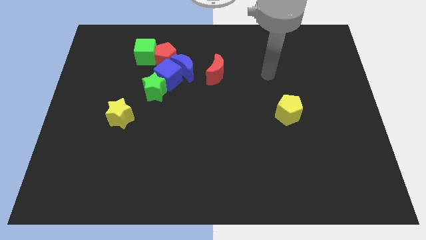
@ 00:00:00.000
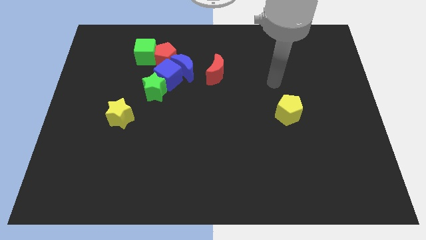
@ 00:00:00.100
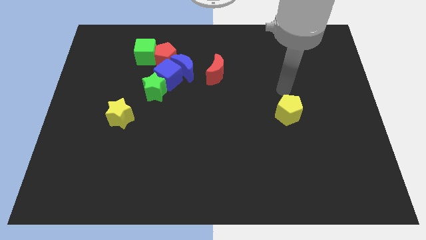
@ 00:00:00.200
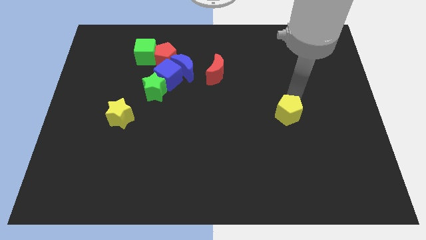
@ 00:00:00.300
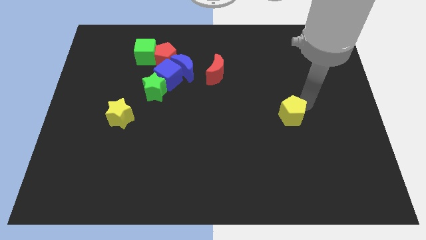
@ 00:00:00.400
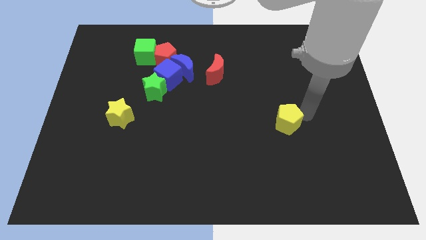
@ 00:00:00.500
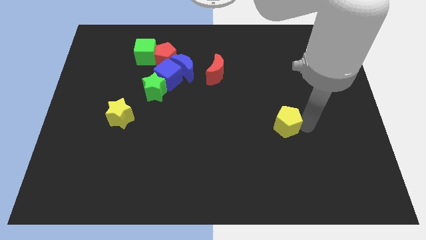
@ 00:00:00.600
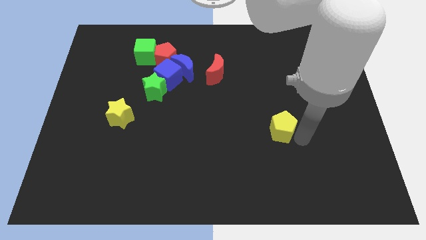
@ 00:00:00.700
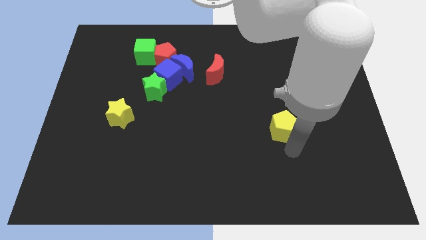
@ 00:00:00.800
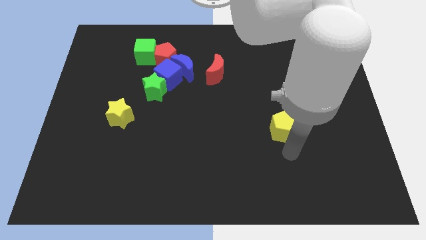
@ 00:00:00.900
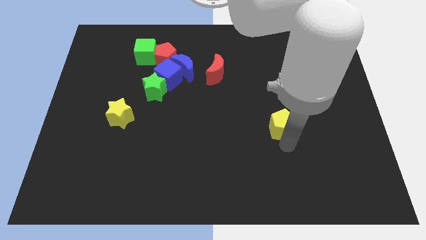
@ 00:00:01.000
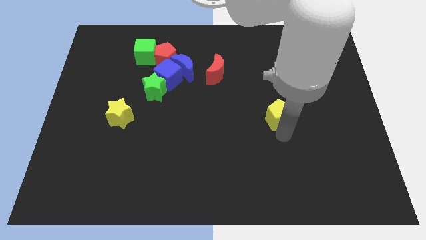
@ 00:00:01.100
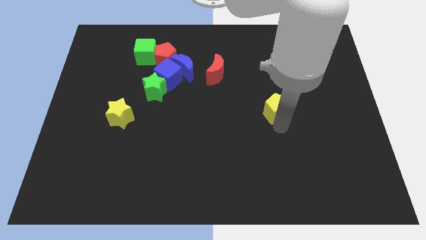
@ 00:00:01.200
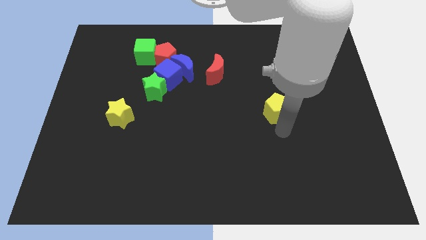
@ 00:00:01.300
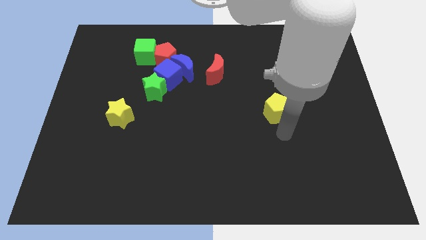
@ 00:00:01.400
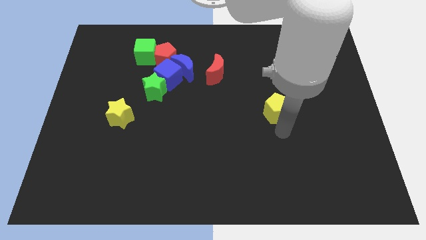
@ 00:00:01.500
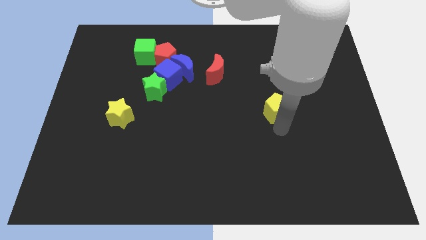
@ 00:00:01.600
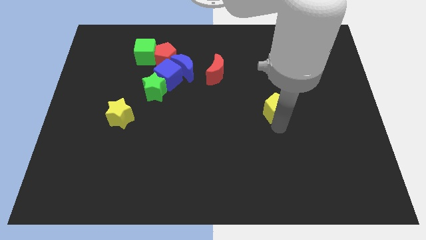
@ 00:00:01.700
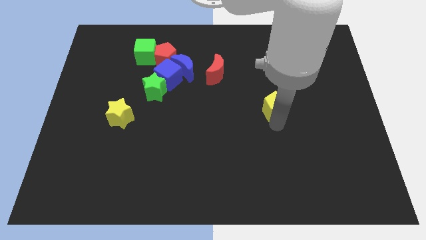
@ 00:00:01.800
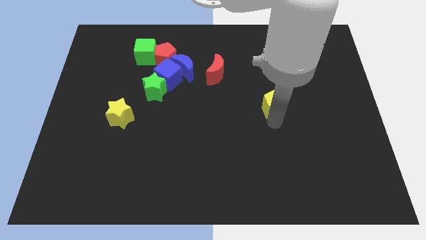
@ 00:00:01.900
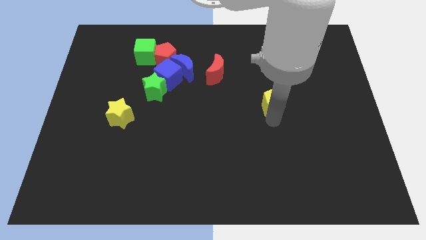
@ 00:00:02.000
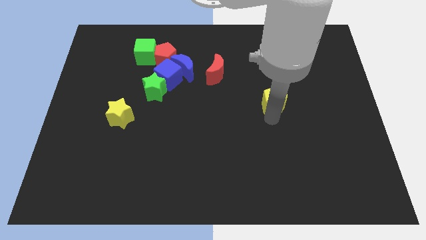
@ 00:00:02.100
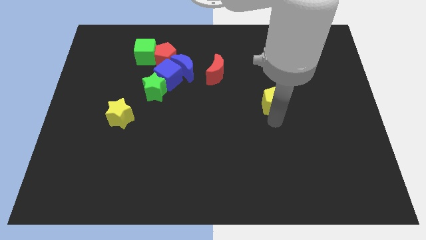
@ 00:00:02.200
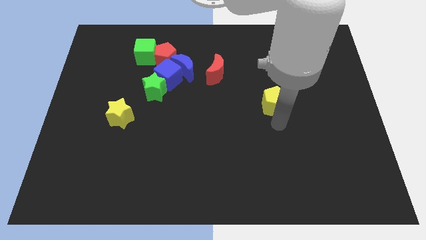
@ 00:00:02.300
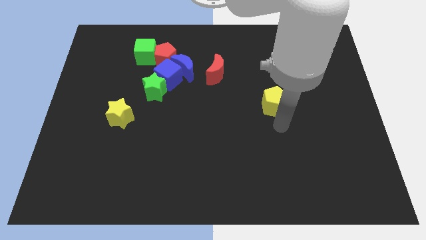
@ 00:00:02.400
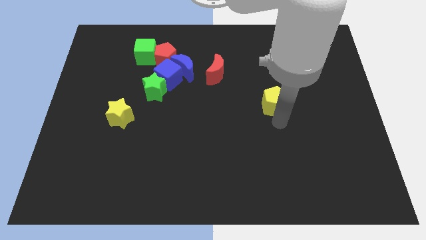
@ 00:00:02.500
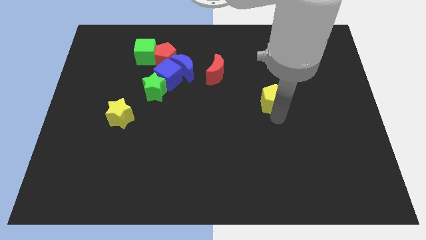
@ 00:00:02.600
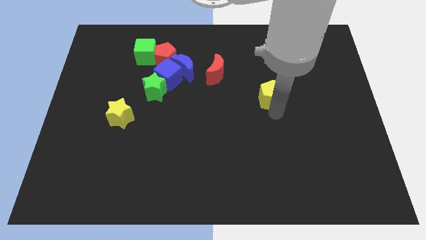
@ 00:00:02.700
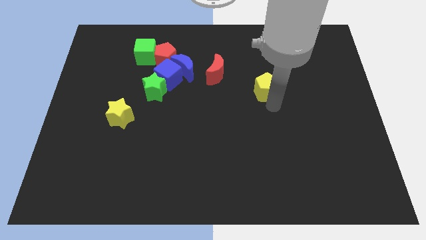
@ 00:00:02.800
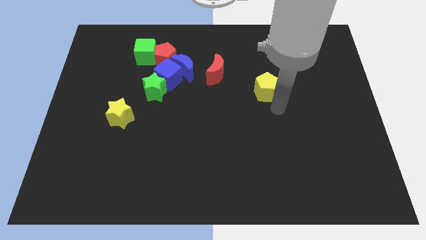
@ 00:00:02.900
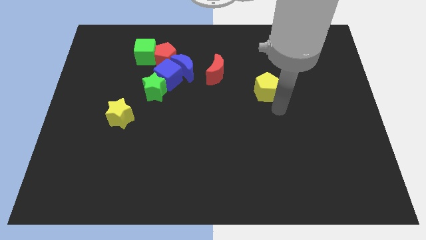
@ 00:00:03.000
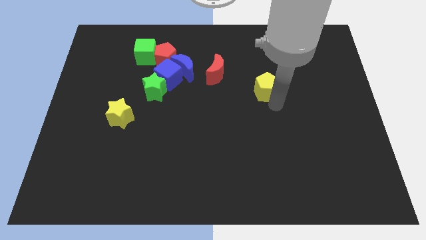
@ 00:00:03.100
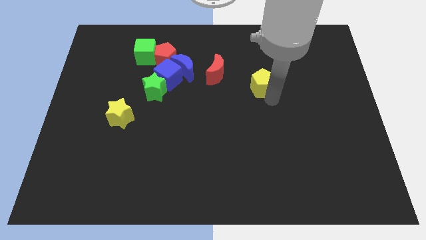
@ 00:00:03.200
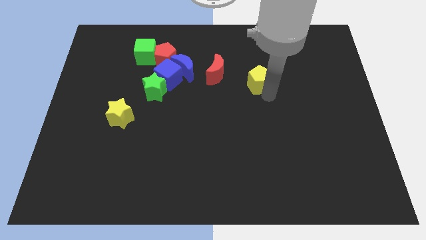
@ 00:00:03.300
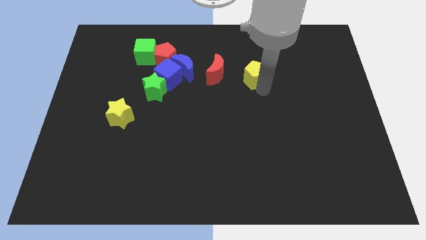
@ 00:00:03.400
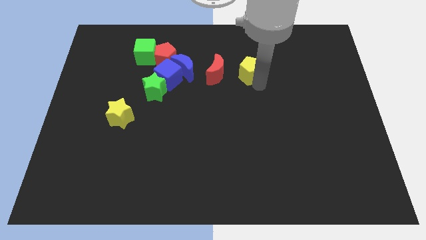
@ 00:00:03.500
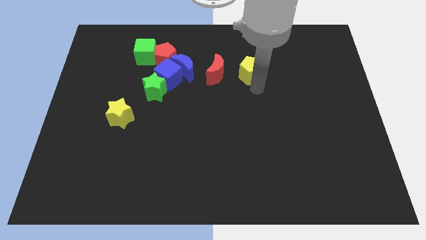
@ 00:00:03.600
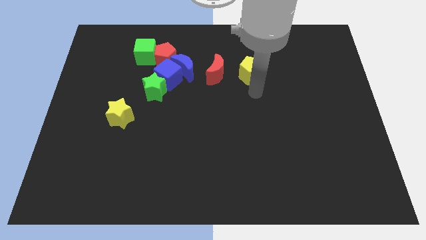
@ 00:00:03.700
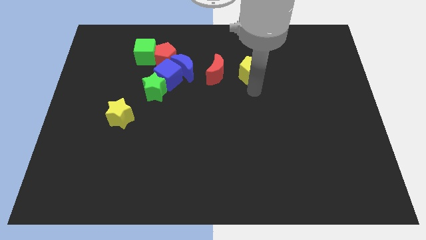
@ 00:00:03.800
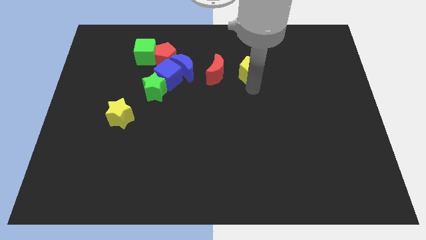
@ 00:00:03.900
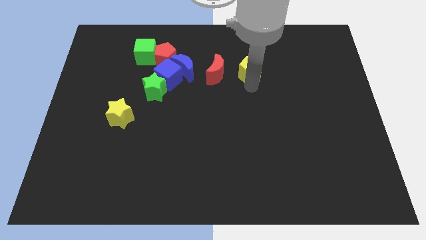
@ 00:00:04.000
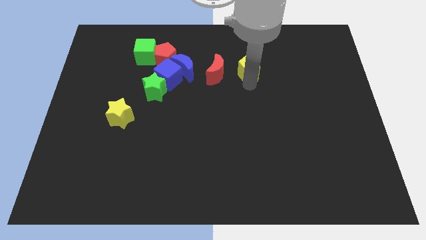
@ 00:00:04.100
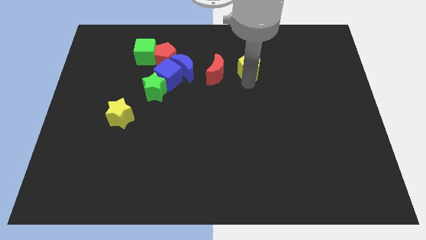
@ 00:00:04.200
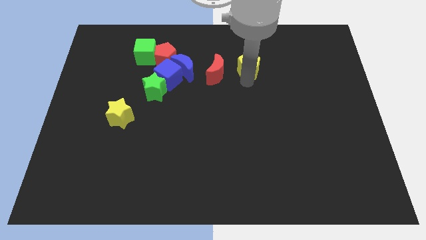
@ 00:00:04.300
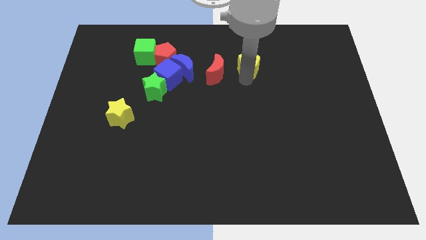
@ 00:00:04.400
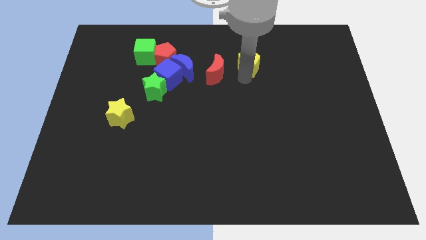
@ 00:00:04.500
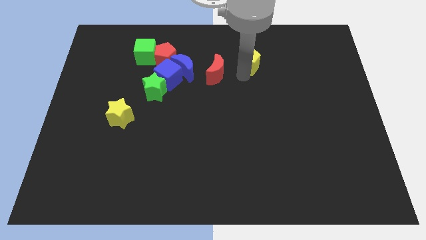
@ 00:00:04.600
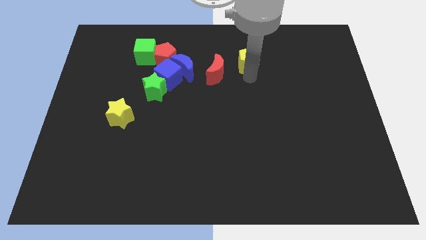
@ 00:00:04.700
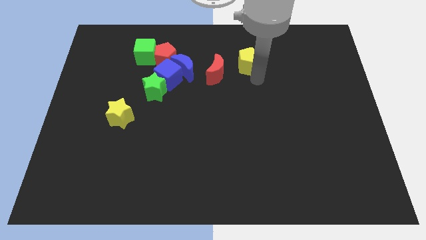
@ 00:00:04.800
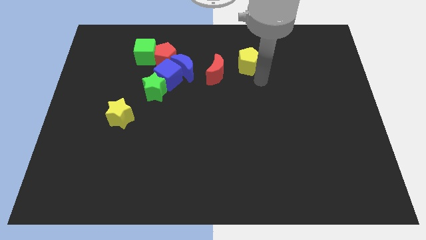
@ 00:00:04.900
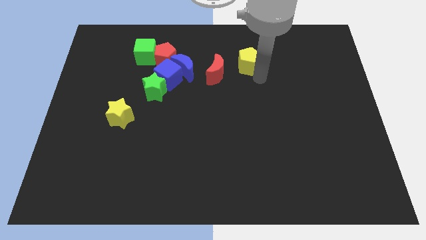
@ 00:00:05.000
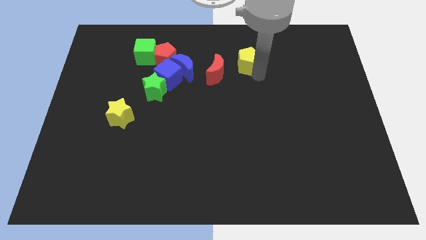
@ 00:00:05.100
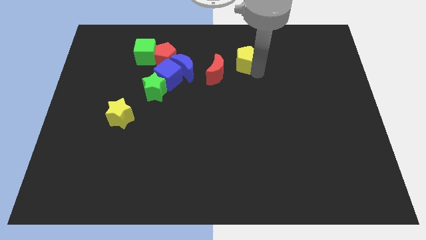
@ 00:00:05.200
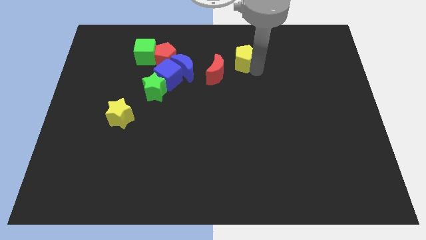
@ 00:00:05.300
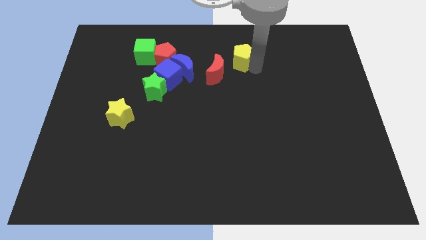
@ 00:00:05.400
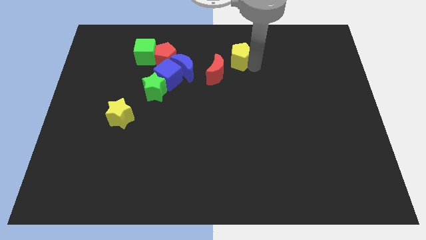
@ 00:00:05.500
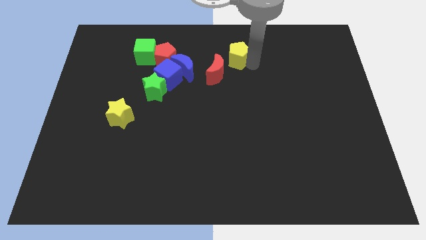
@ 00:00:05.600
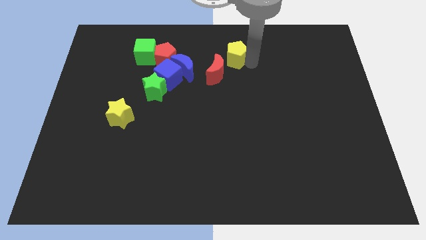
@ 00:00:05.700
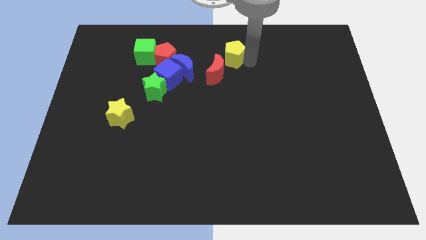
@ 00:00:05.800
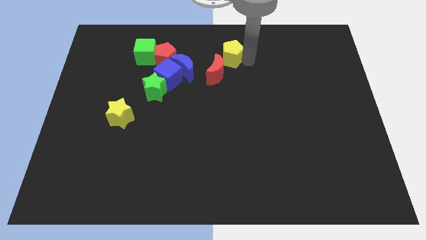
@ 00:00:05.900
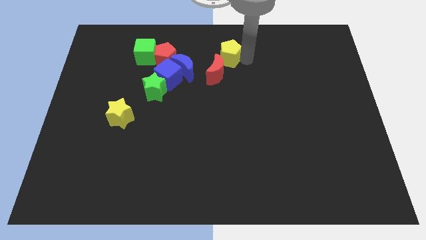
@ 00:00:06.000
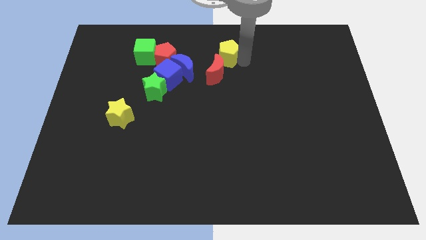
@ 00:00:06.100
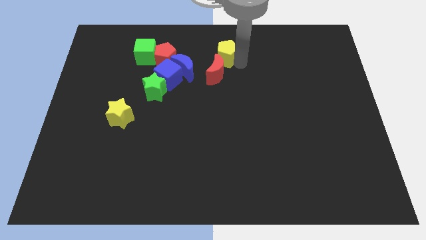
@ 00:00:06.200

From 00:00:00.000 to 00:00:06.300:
push the yellow pentagon to the top side
